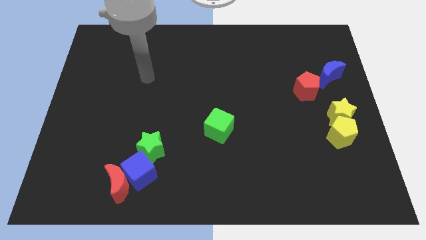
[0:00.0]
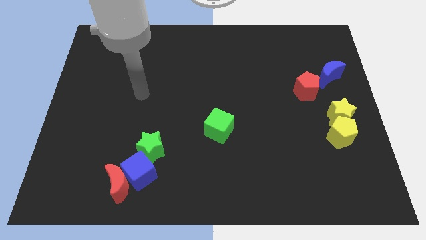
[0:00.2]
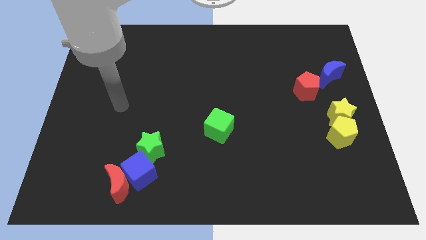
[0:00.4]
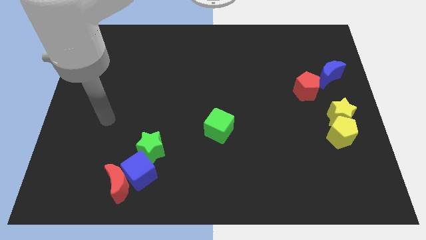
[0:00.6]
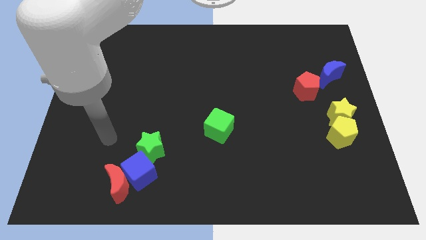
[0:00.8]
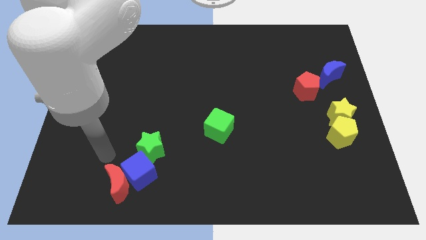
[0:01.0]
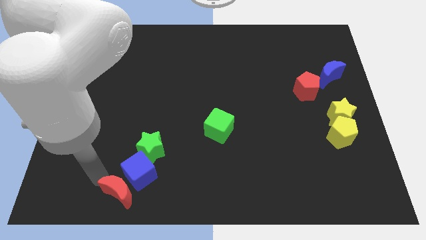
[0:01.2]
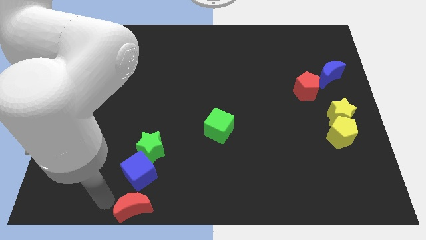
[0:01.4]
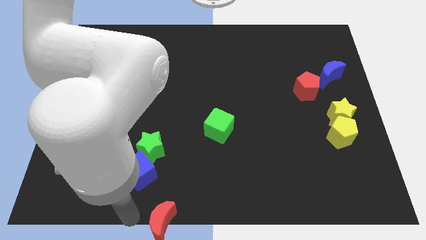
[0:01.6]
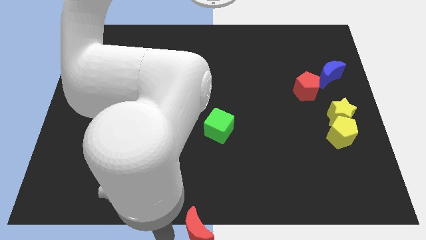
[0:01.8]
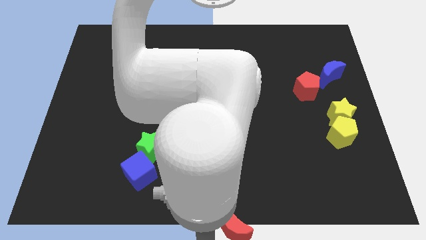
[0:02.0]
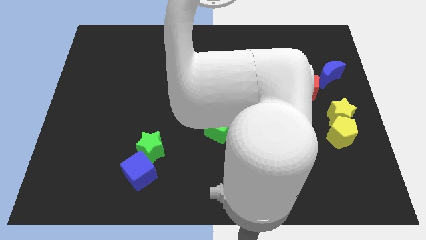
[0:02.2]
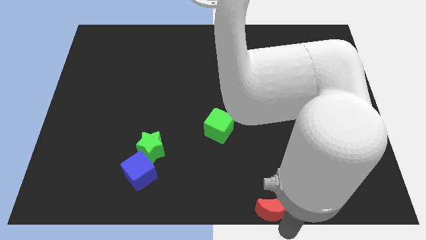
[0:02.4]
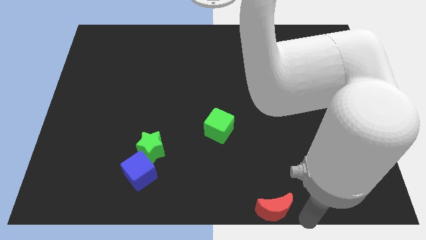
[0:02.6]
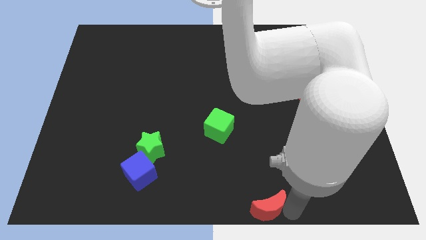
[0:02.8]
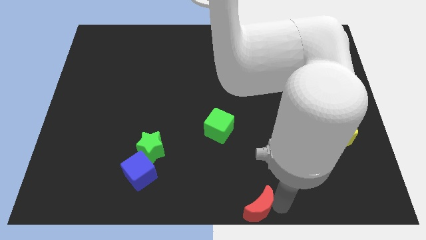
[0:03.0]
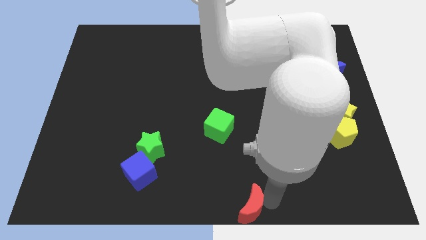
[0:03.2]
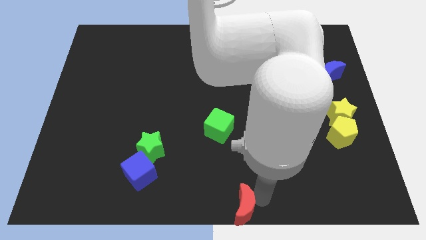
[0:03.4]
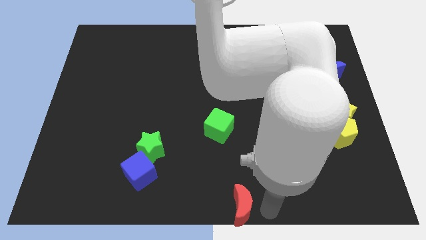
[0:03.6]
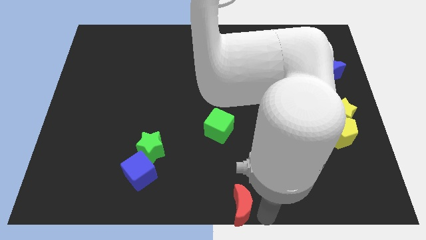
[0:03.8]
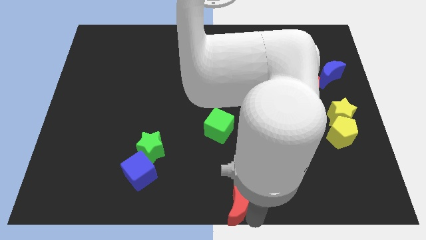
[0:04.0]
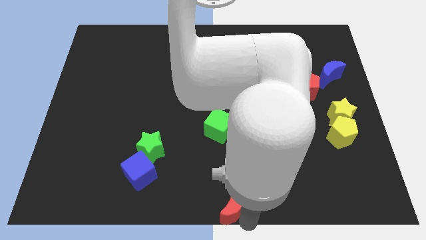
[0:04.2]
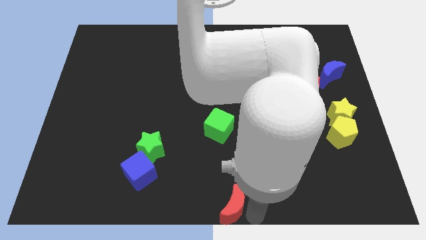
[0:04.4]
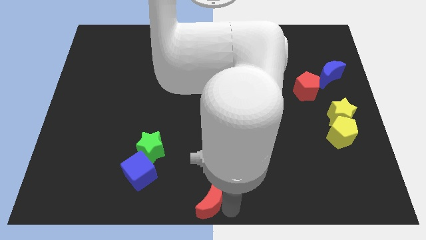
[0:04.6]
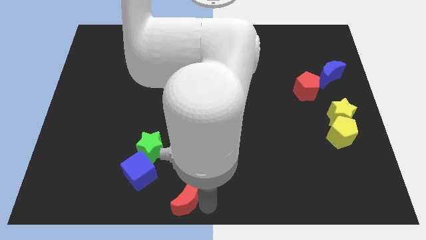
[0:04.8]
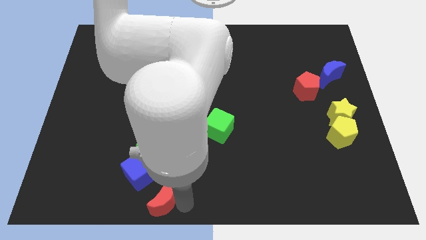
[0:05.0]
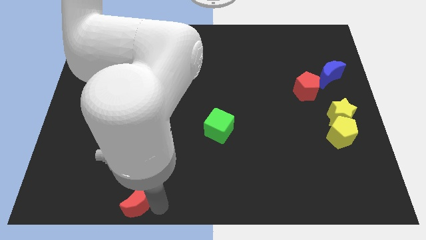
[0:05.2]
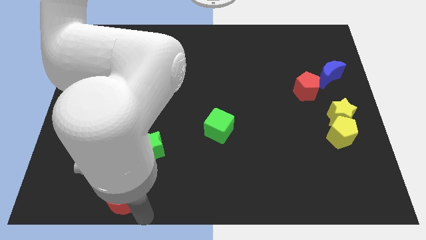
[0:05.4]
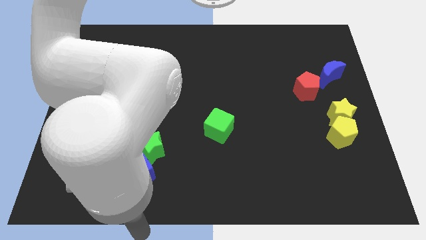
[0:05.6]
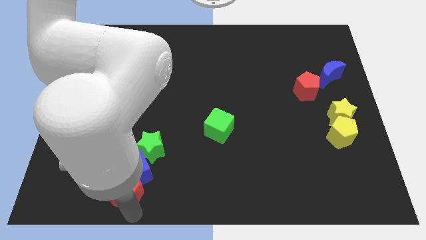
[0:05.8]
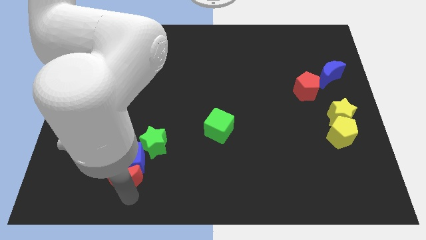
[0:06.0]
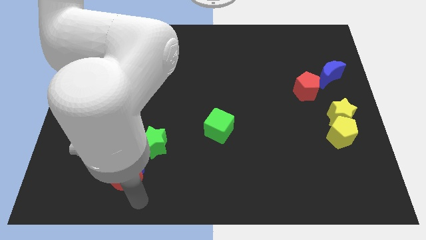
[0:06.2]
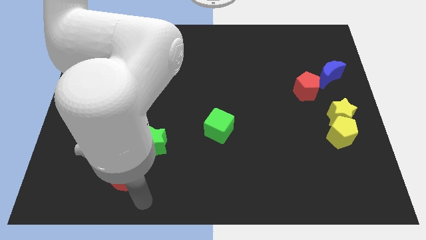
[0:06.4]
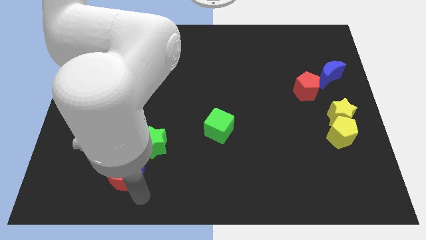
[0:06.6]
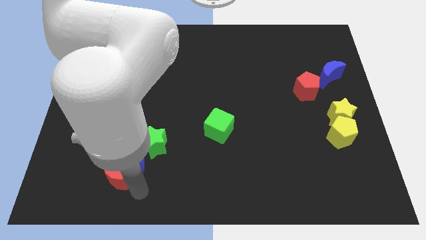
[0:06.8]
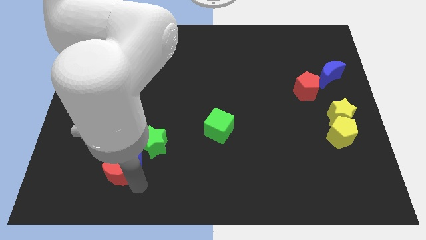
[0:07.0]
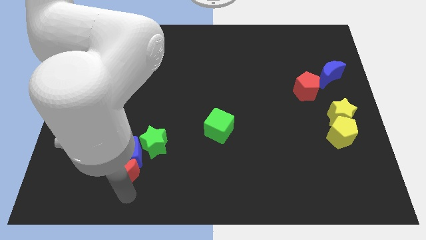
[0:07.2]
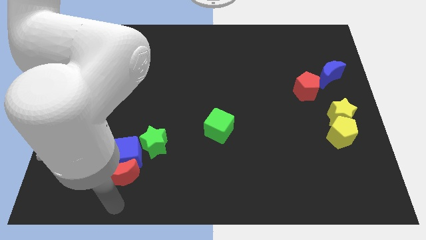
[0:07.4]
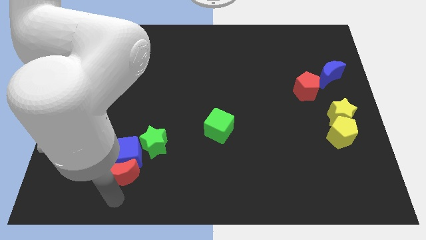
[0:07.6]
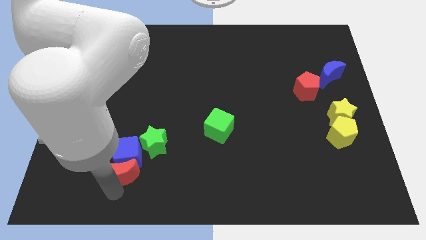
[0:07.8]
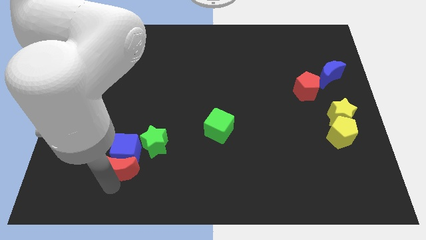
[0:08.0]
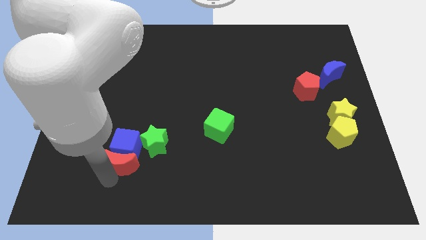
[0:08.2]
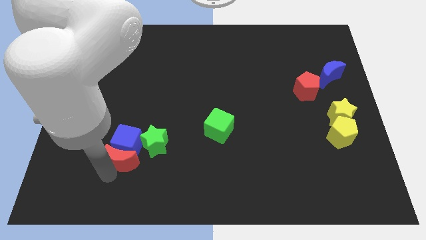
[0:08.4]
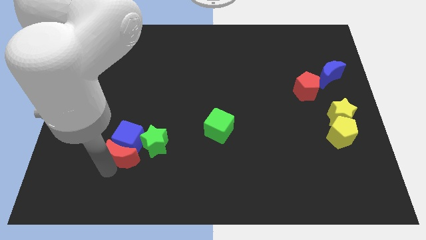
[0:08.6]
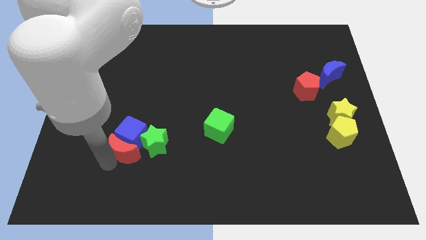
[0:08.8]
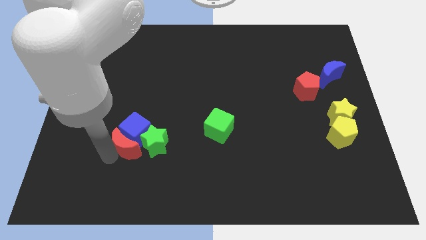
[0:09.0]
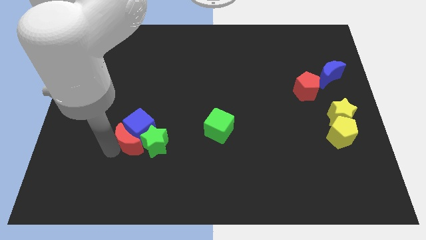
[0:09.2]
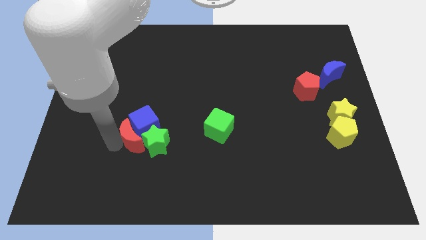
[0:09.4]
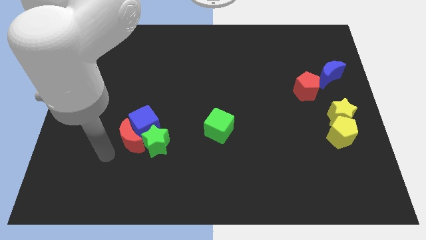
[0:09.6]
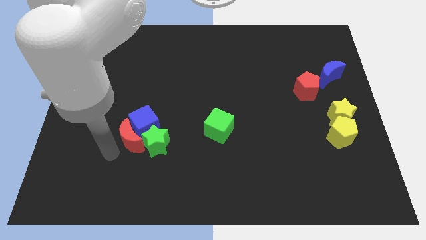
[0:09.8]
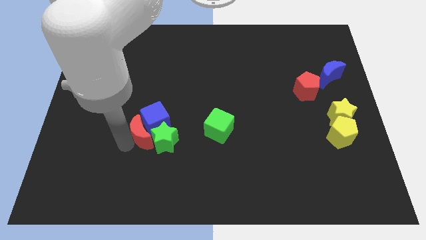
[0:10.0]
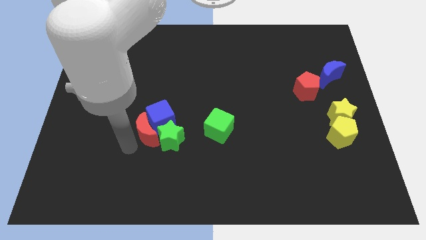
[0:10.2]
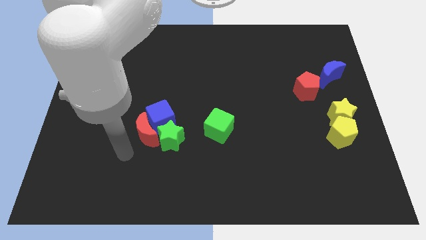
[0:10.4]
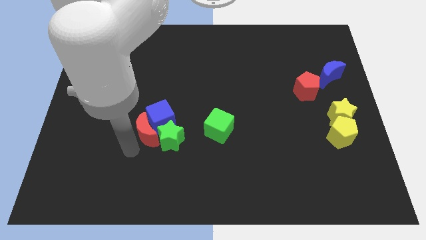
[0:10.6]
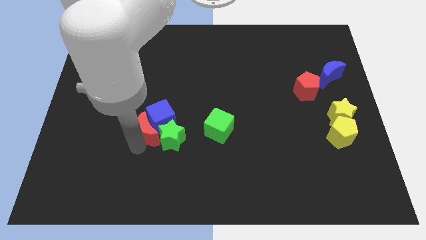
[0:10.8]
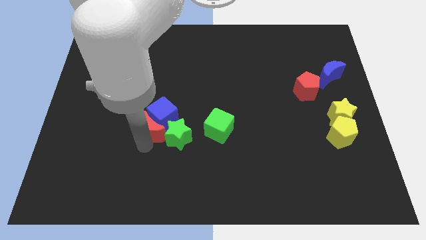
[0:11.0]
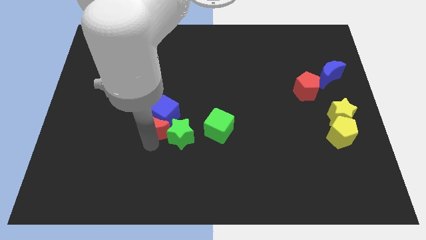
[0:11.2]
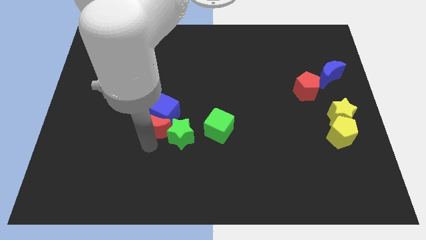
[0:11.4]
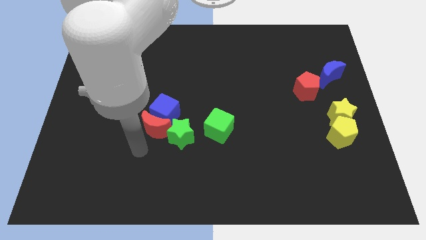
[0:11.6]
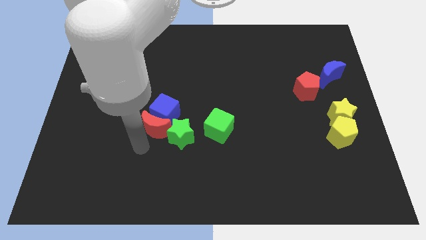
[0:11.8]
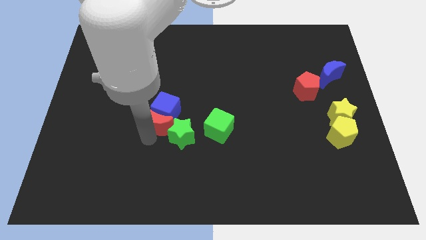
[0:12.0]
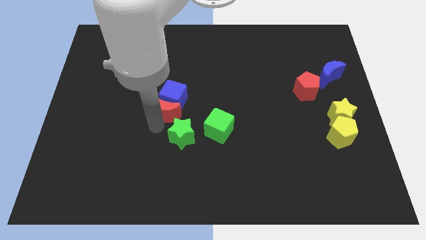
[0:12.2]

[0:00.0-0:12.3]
push the red moon to the center

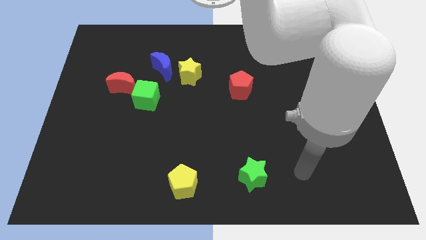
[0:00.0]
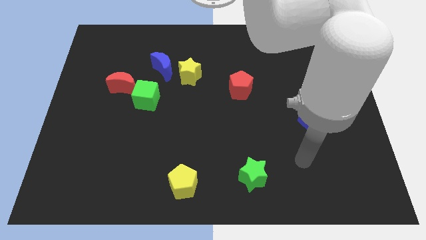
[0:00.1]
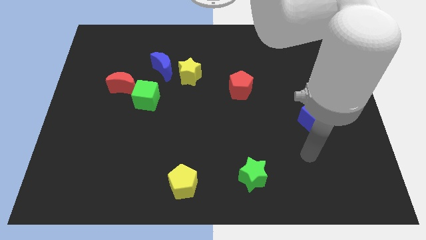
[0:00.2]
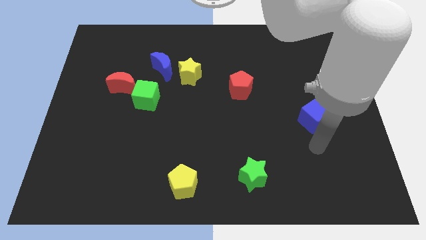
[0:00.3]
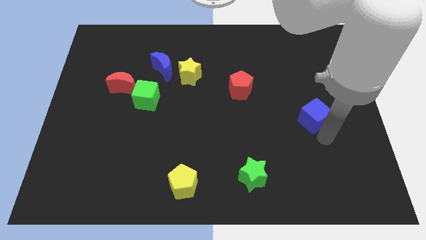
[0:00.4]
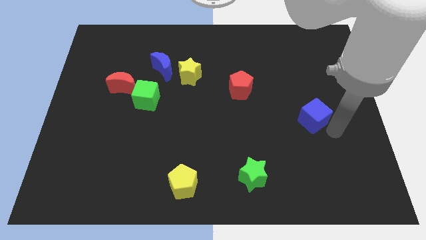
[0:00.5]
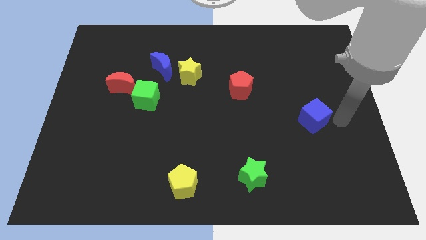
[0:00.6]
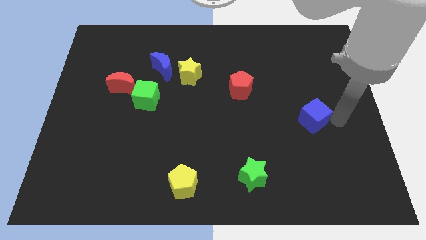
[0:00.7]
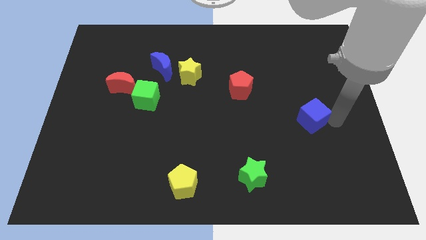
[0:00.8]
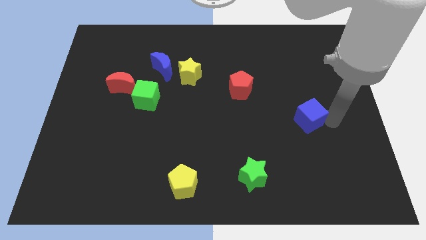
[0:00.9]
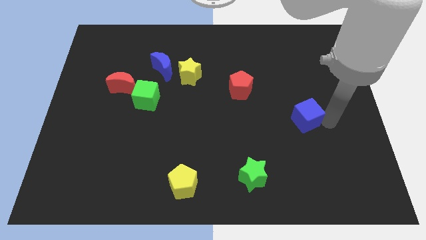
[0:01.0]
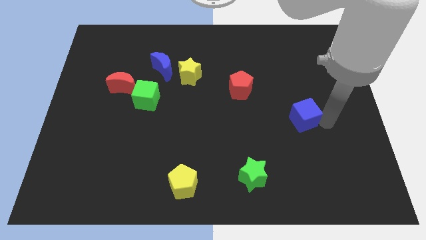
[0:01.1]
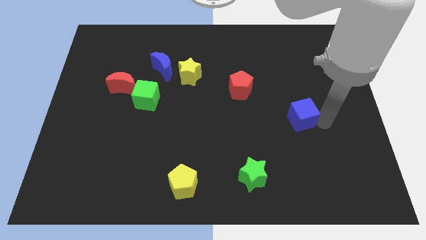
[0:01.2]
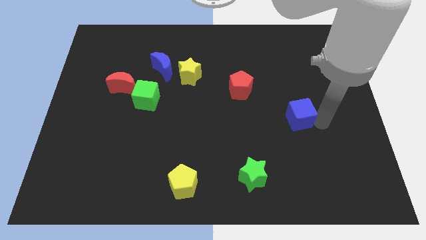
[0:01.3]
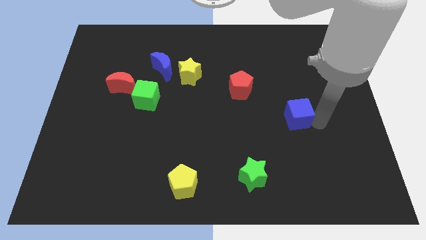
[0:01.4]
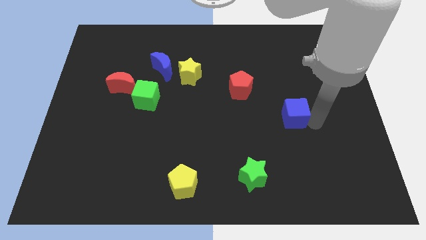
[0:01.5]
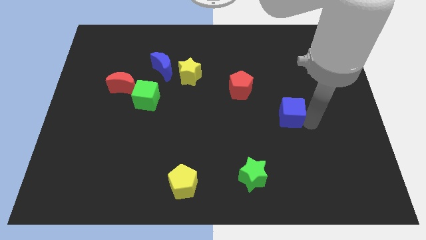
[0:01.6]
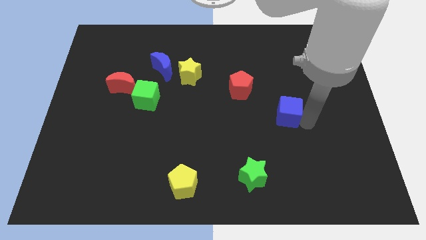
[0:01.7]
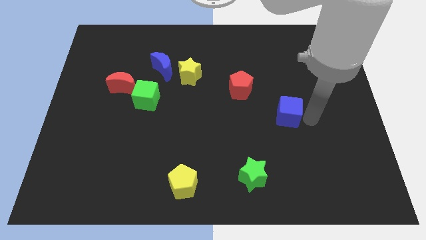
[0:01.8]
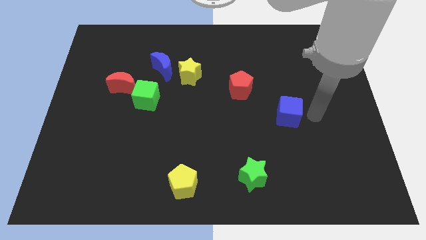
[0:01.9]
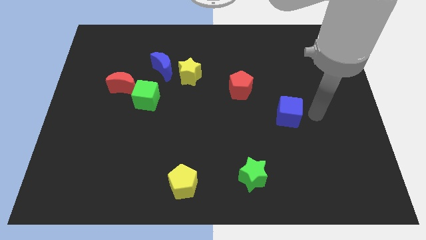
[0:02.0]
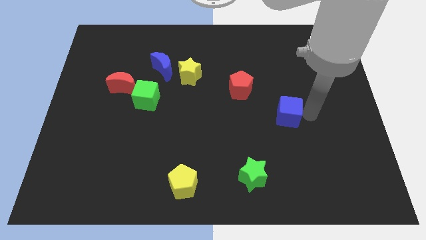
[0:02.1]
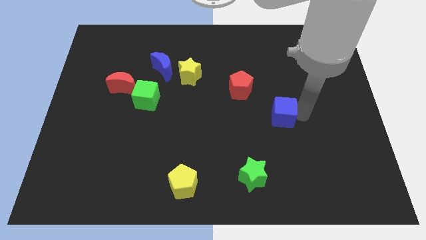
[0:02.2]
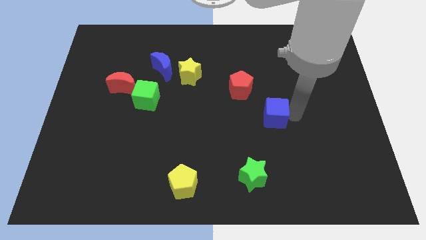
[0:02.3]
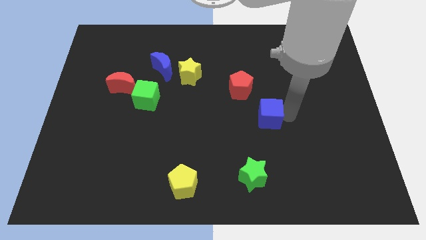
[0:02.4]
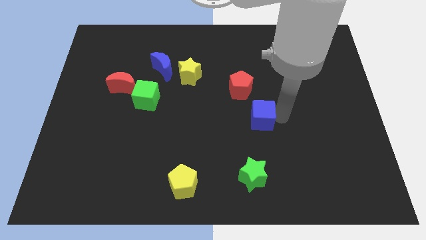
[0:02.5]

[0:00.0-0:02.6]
slide the blue cube to the center of the board
